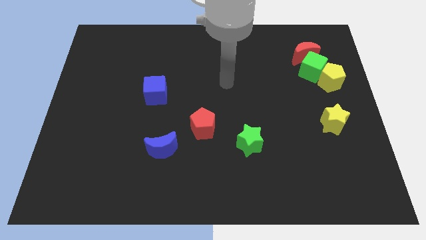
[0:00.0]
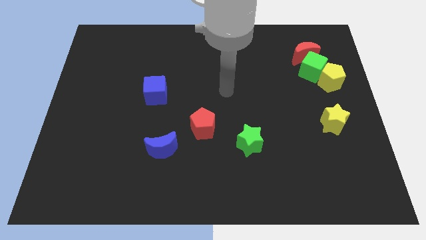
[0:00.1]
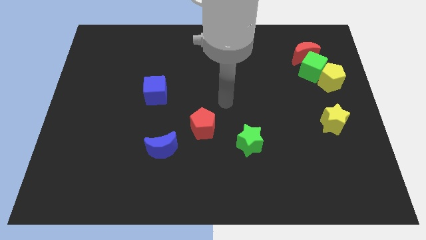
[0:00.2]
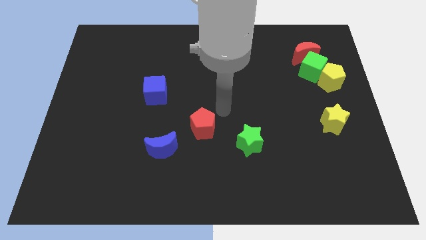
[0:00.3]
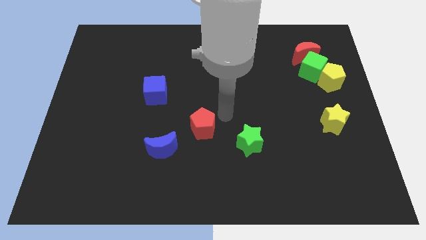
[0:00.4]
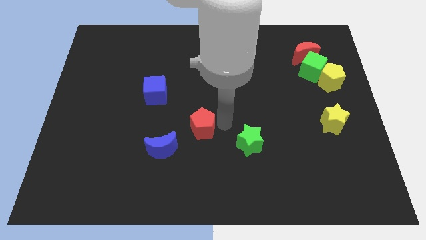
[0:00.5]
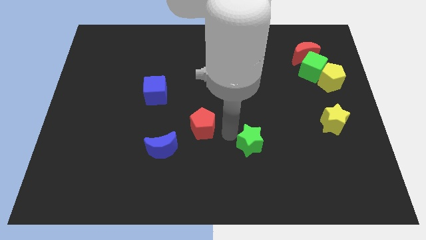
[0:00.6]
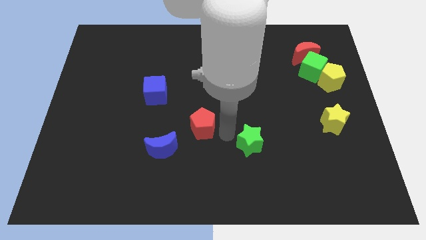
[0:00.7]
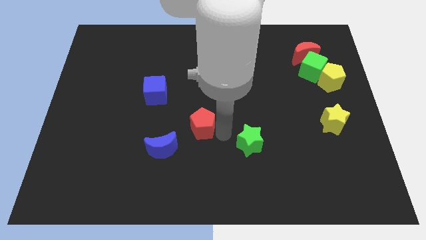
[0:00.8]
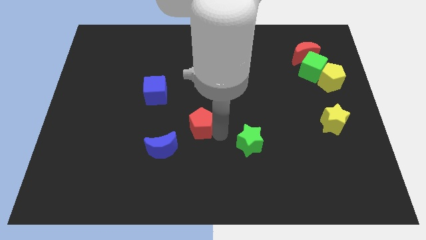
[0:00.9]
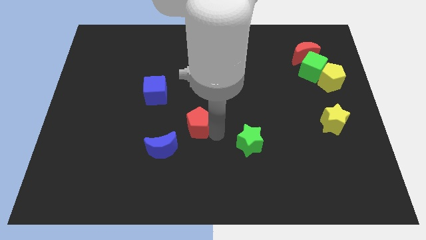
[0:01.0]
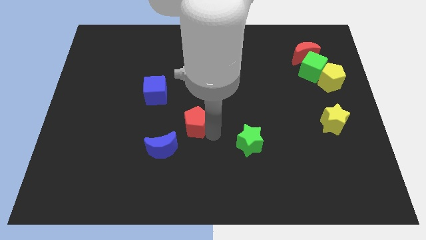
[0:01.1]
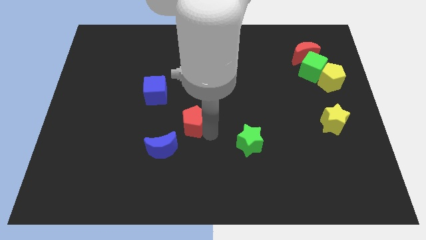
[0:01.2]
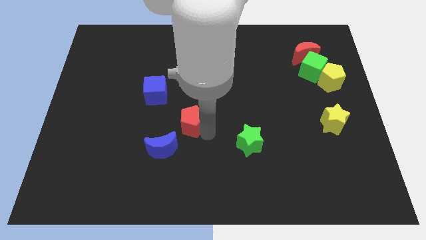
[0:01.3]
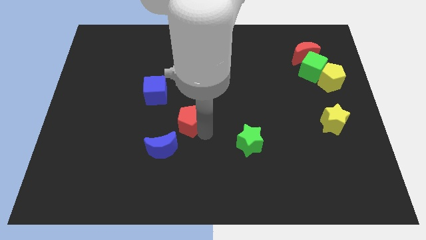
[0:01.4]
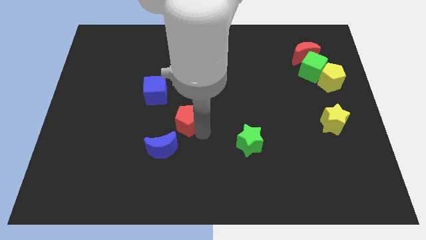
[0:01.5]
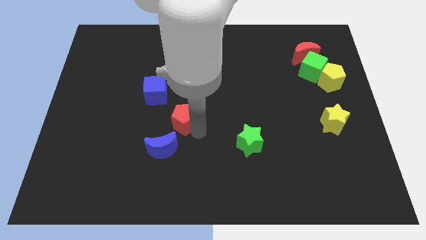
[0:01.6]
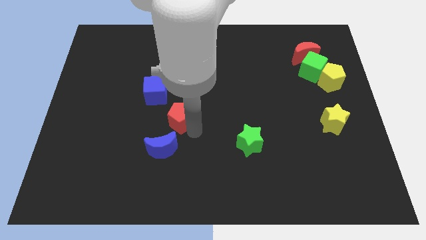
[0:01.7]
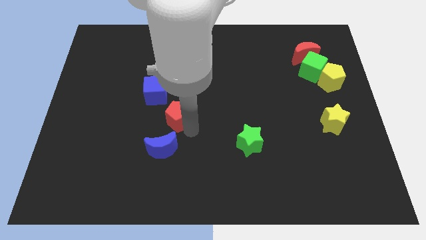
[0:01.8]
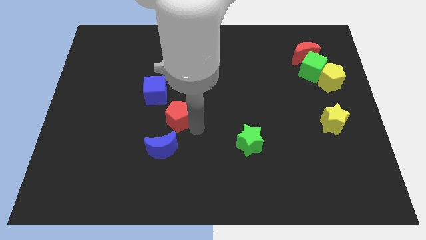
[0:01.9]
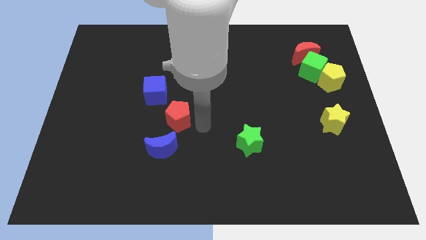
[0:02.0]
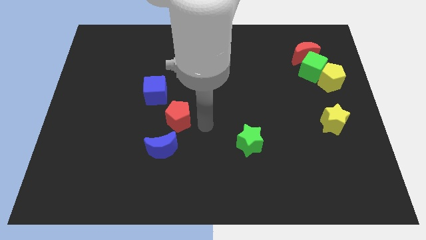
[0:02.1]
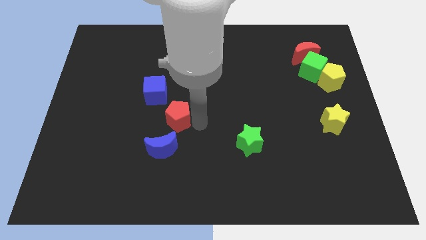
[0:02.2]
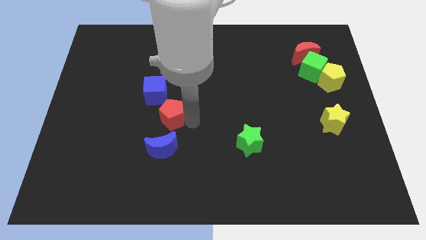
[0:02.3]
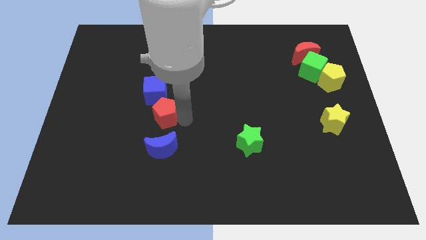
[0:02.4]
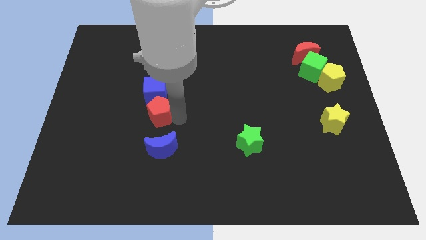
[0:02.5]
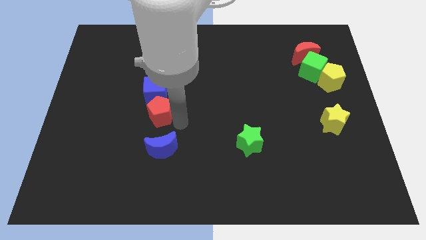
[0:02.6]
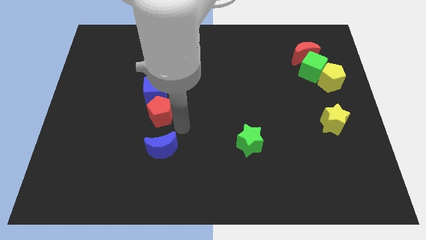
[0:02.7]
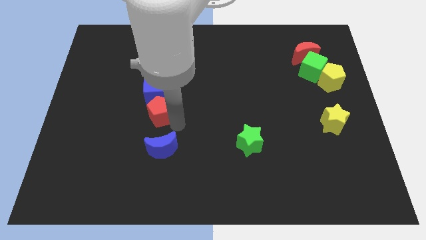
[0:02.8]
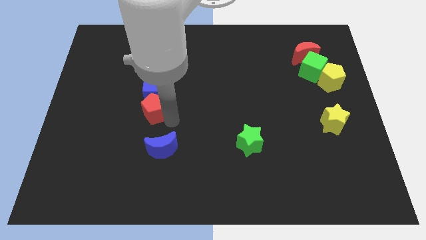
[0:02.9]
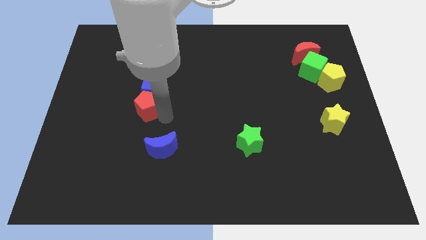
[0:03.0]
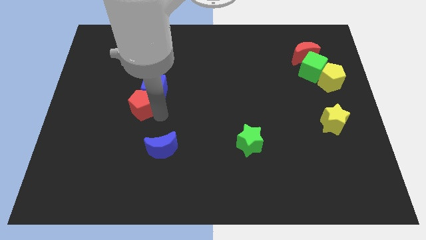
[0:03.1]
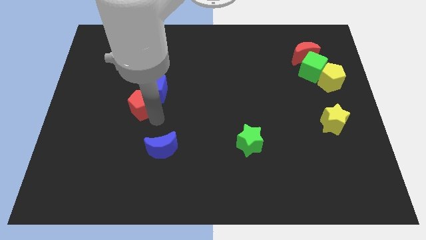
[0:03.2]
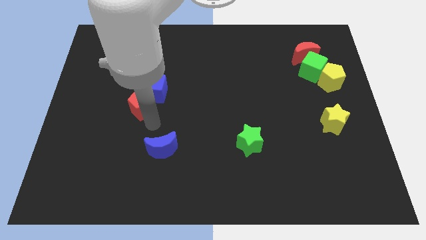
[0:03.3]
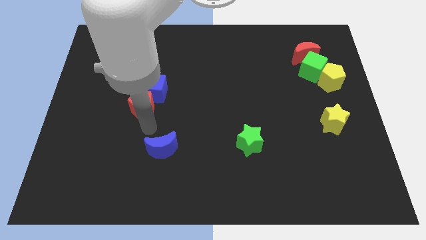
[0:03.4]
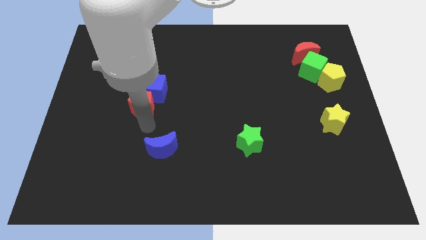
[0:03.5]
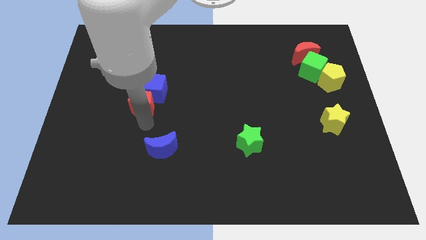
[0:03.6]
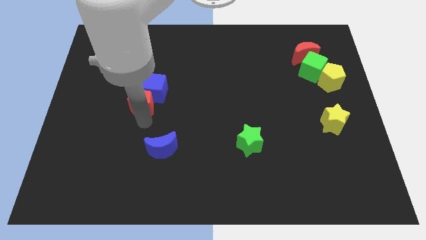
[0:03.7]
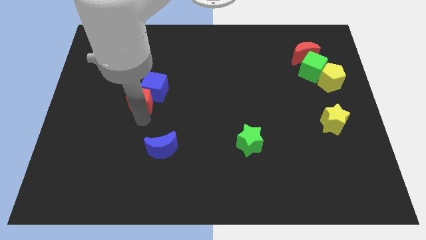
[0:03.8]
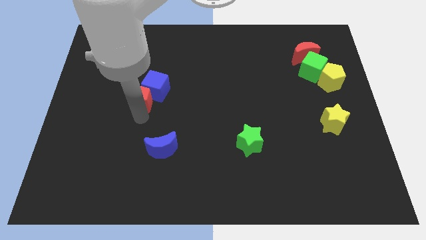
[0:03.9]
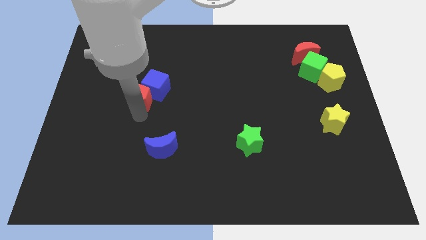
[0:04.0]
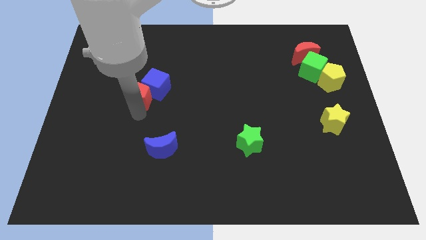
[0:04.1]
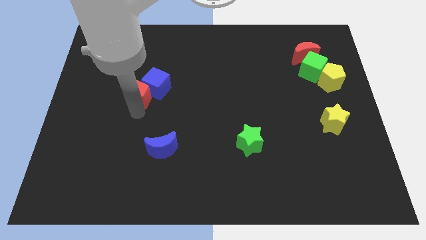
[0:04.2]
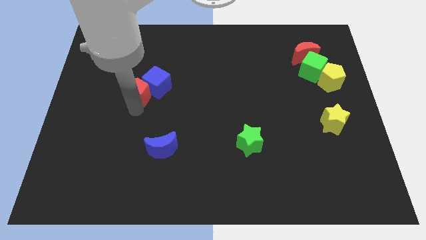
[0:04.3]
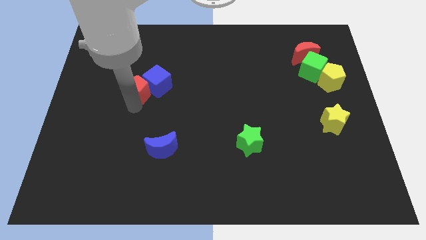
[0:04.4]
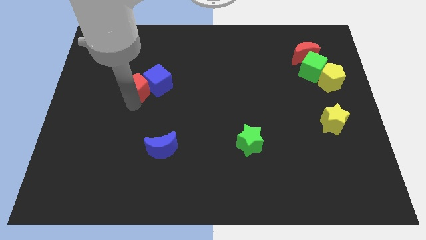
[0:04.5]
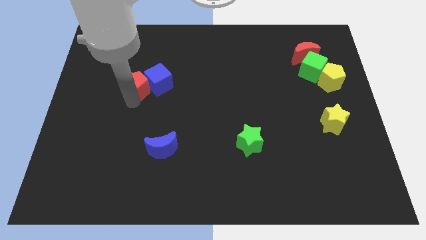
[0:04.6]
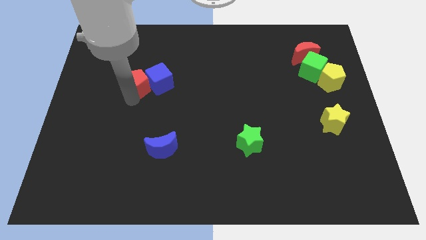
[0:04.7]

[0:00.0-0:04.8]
push the red pentagon diagonally upwards and left

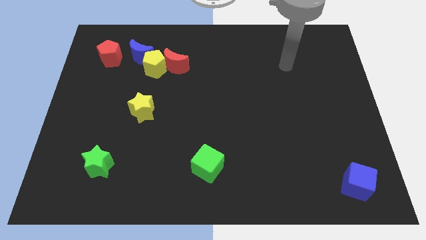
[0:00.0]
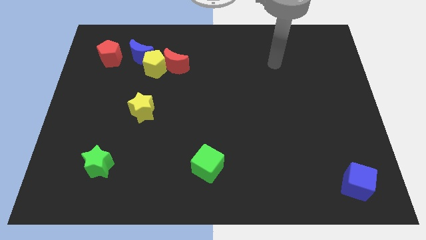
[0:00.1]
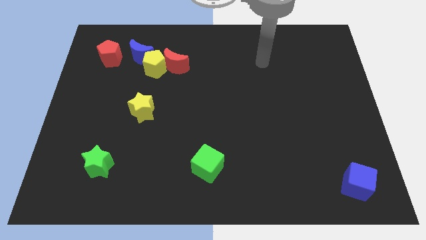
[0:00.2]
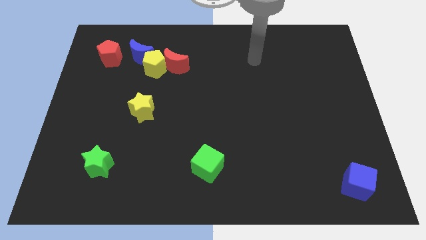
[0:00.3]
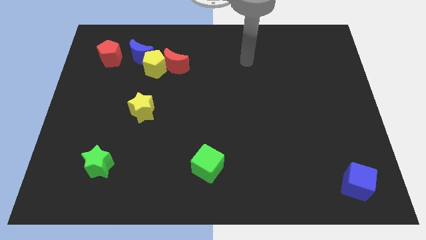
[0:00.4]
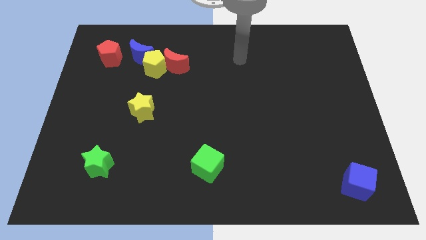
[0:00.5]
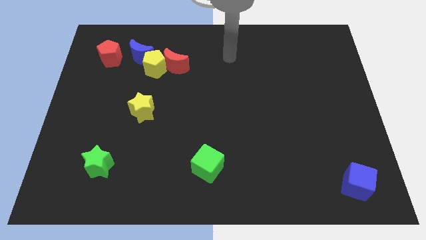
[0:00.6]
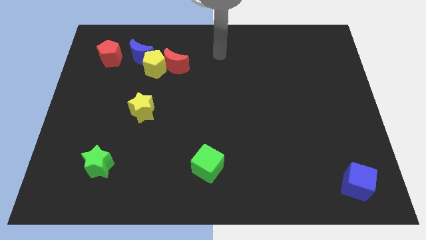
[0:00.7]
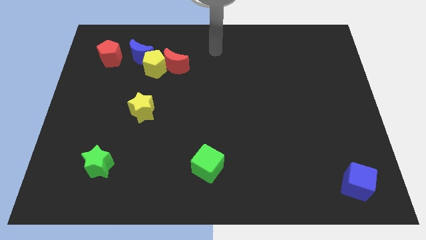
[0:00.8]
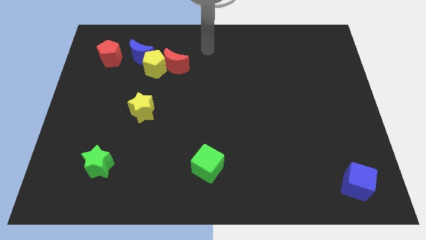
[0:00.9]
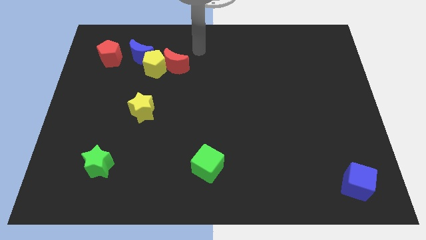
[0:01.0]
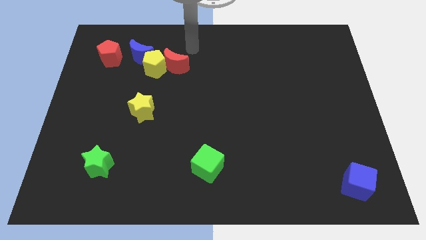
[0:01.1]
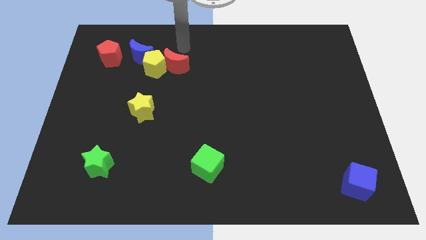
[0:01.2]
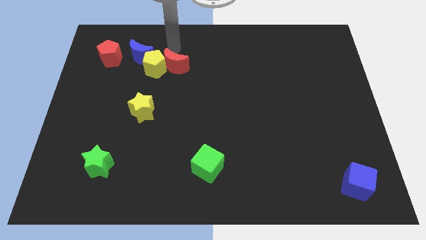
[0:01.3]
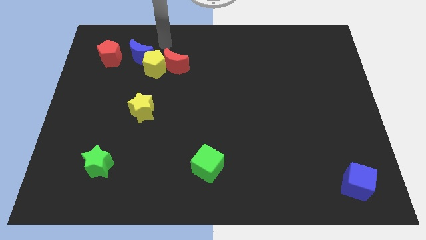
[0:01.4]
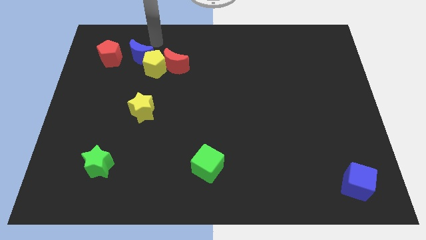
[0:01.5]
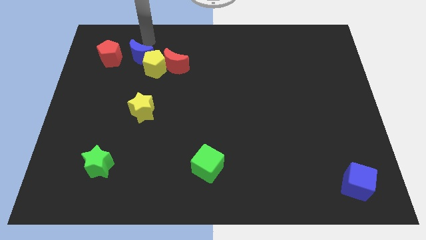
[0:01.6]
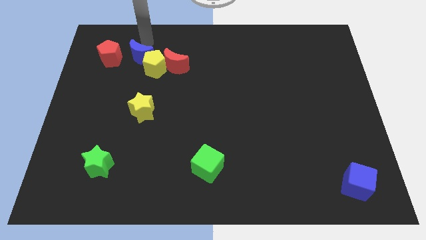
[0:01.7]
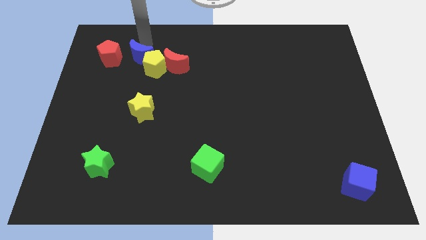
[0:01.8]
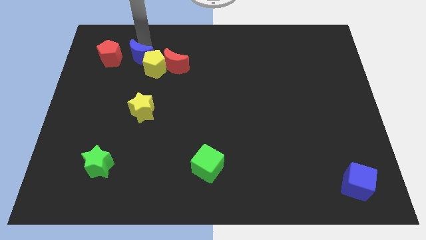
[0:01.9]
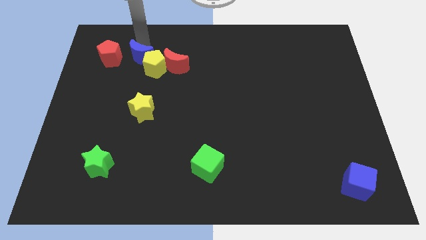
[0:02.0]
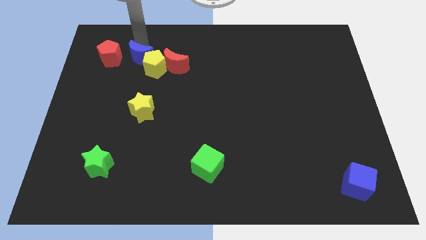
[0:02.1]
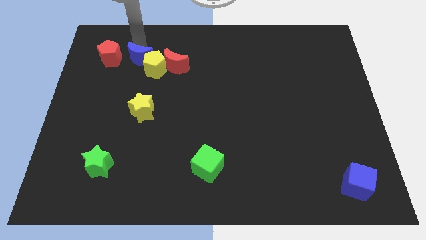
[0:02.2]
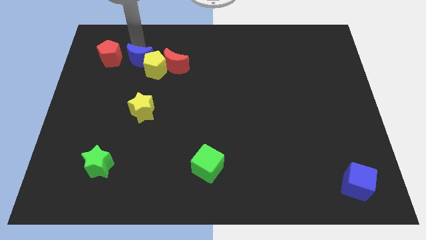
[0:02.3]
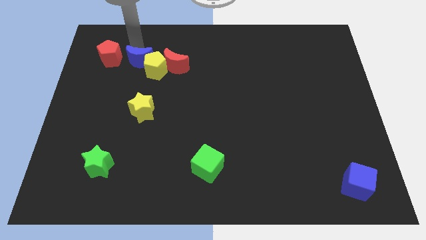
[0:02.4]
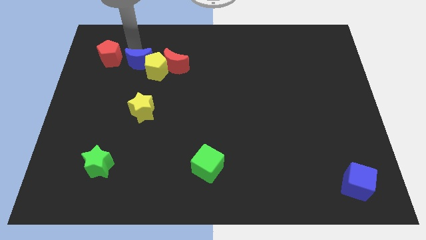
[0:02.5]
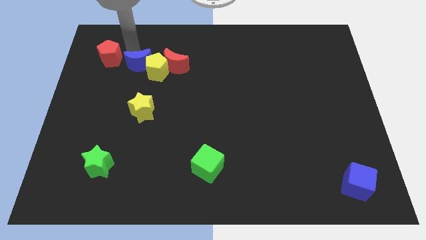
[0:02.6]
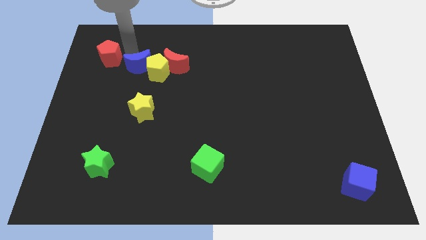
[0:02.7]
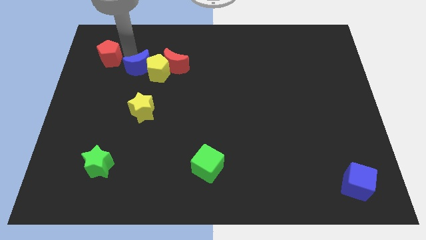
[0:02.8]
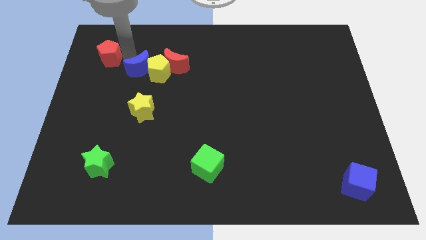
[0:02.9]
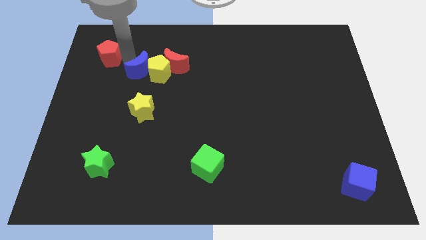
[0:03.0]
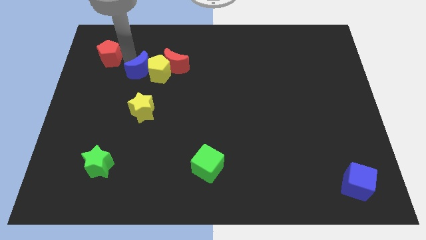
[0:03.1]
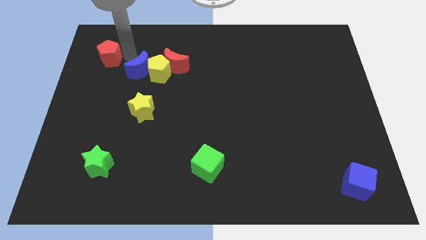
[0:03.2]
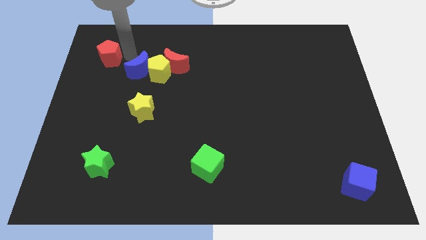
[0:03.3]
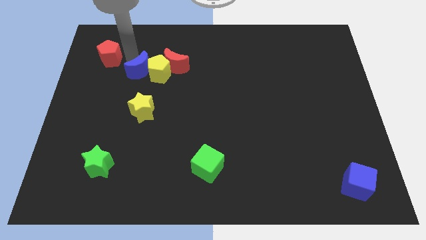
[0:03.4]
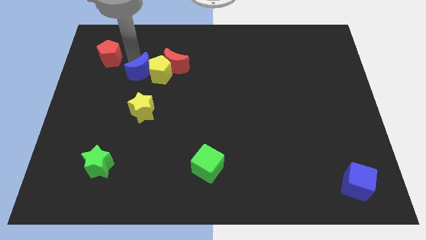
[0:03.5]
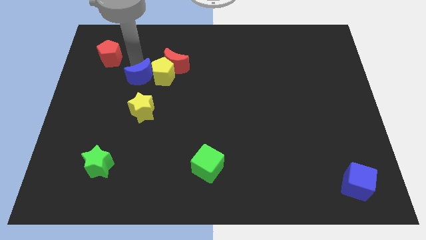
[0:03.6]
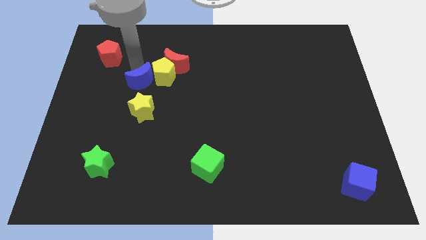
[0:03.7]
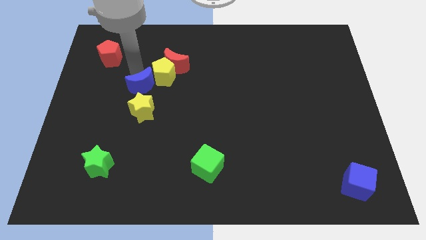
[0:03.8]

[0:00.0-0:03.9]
push the blue moon diagonally down and right a little
